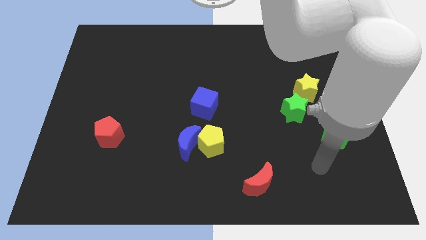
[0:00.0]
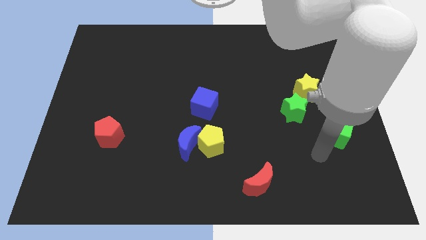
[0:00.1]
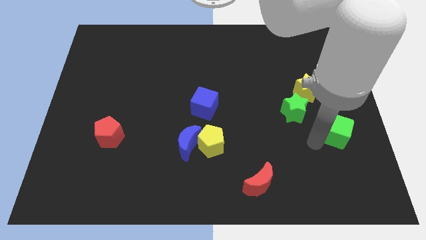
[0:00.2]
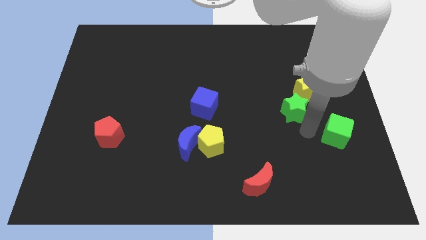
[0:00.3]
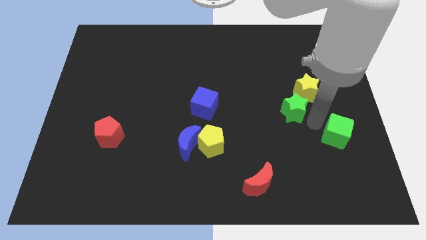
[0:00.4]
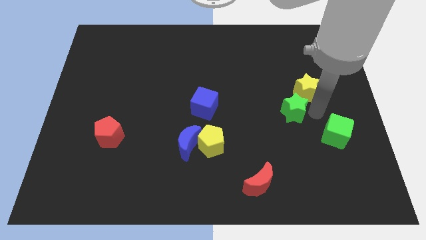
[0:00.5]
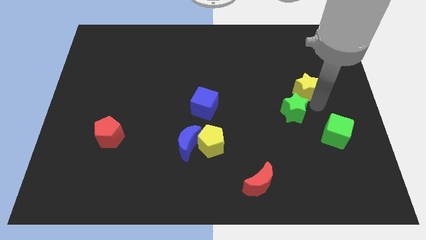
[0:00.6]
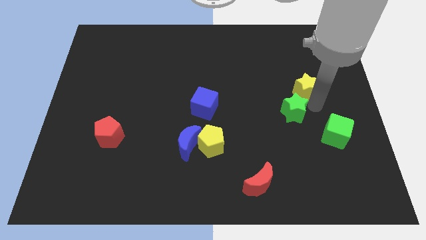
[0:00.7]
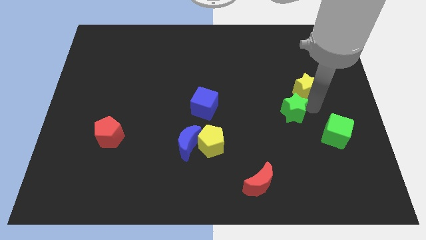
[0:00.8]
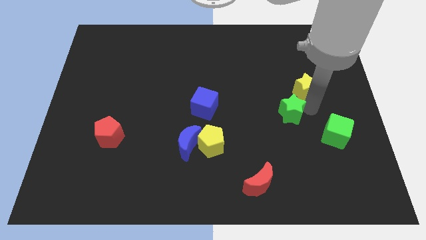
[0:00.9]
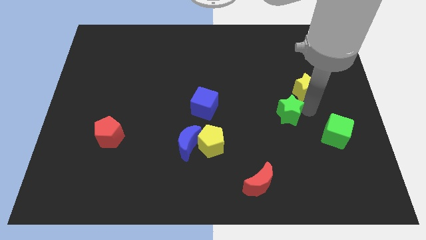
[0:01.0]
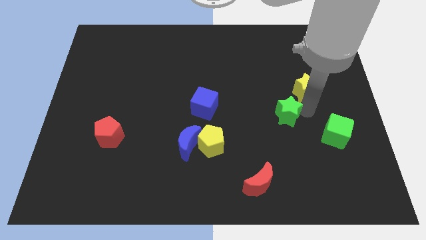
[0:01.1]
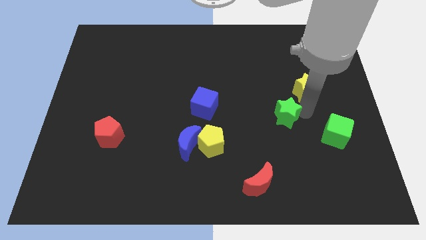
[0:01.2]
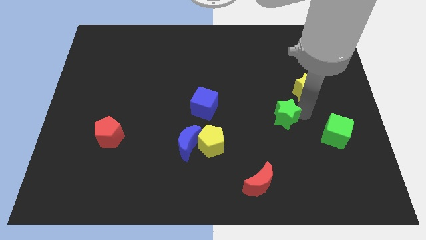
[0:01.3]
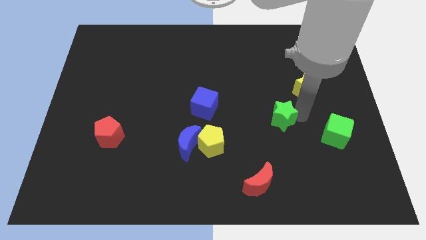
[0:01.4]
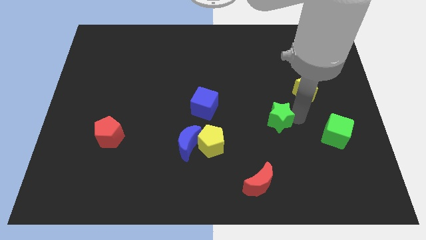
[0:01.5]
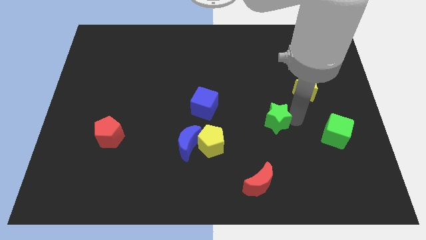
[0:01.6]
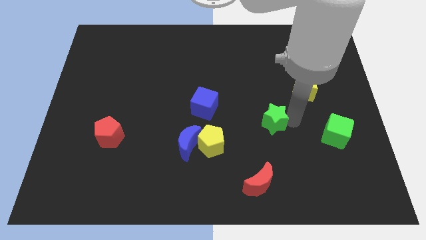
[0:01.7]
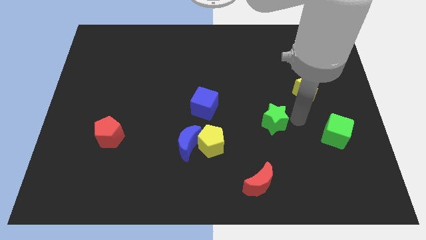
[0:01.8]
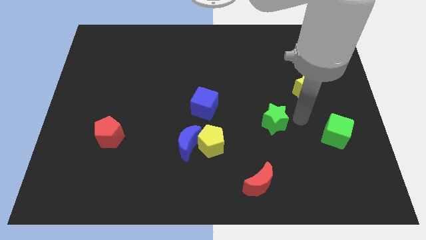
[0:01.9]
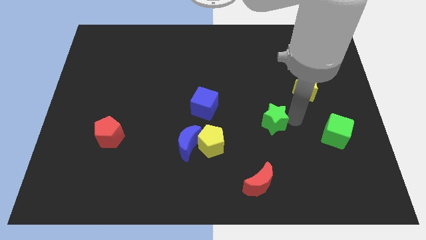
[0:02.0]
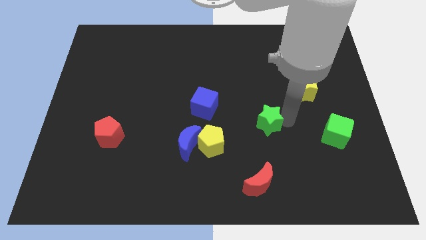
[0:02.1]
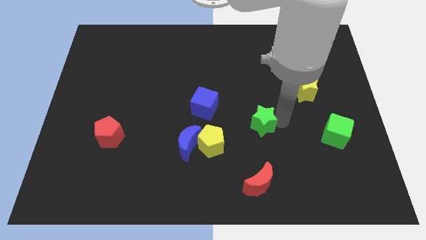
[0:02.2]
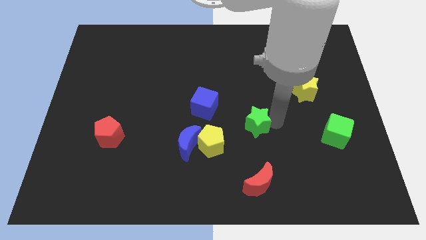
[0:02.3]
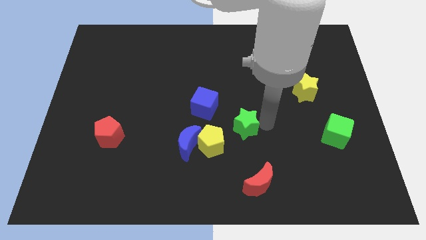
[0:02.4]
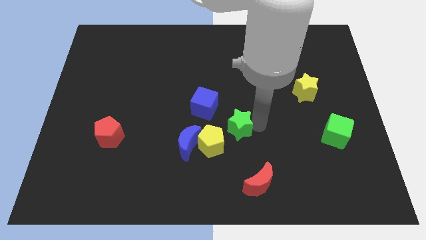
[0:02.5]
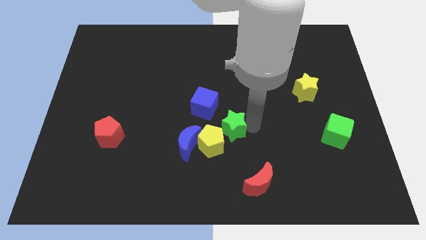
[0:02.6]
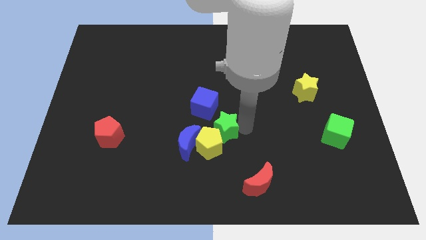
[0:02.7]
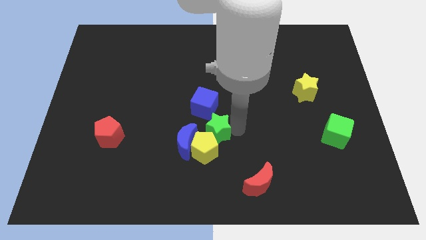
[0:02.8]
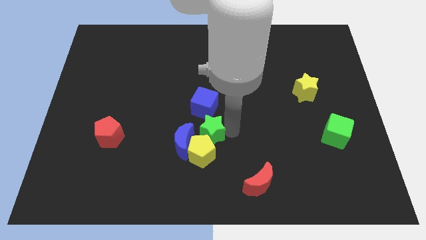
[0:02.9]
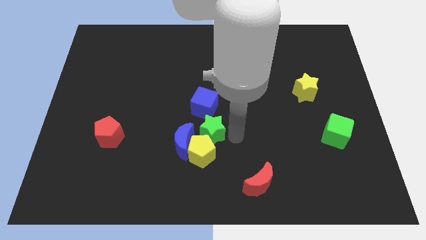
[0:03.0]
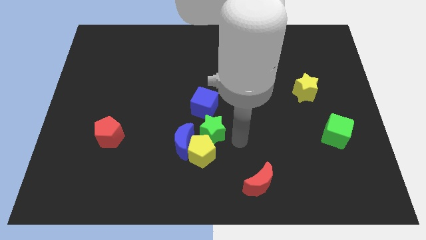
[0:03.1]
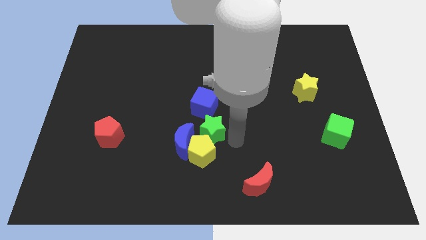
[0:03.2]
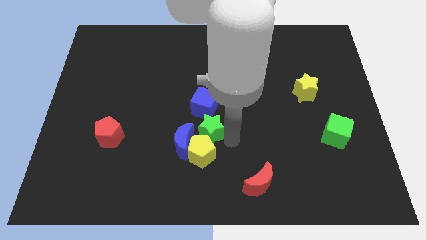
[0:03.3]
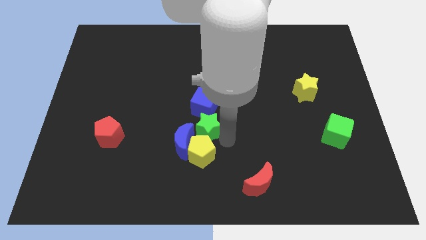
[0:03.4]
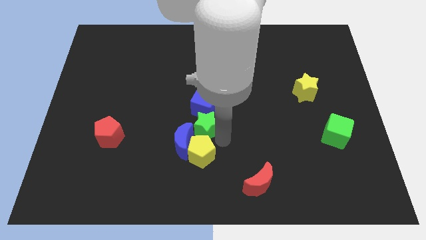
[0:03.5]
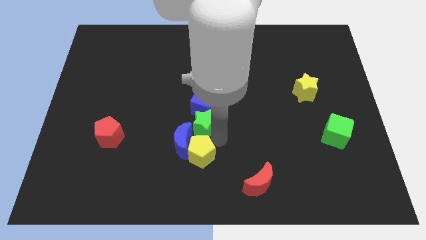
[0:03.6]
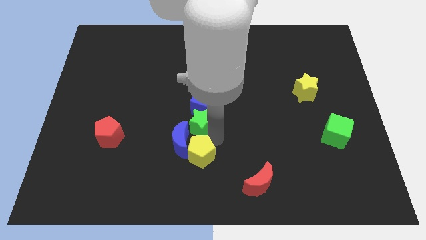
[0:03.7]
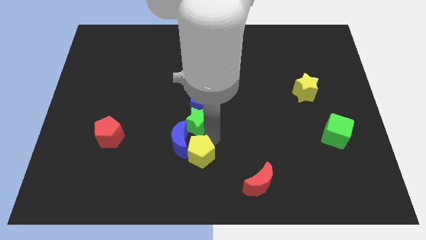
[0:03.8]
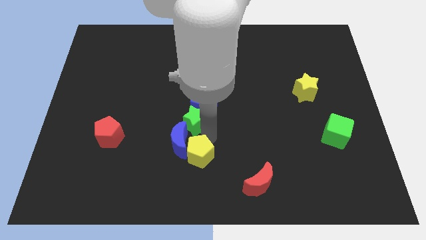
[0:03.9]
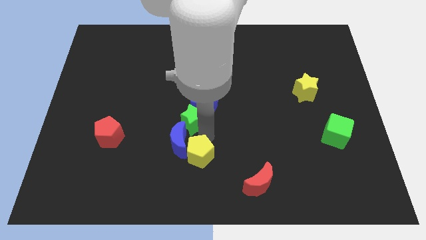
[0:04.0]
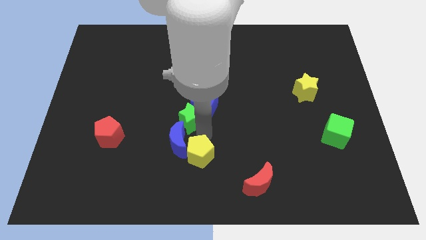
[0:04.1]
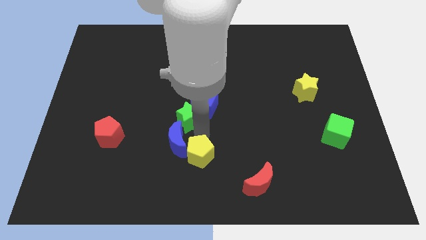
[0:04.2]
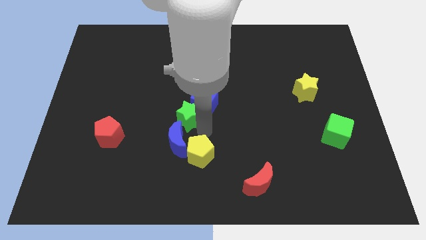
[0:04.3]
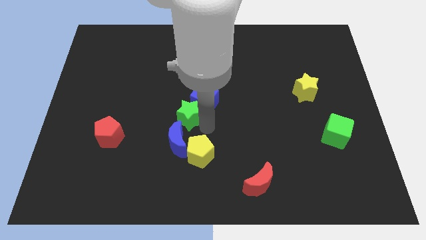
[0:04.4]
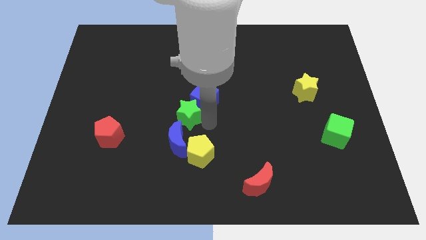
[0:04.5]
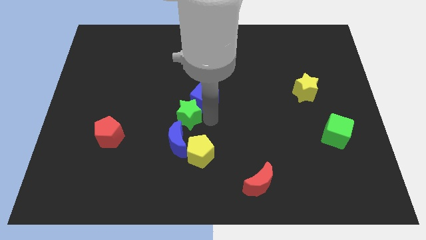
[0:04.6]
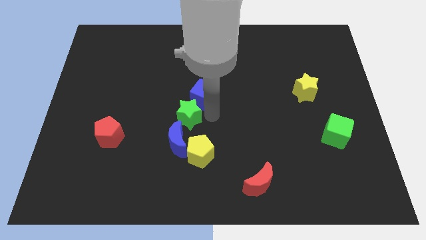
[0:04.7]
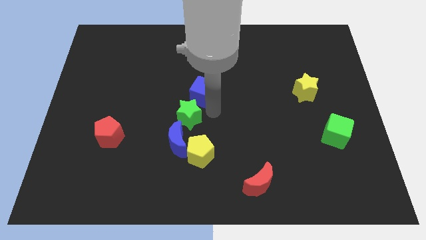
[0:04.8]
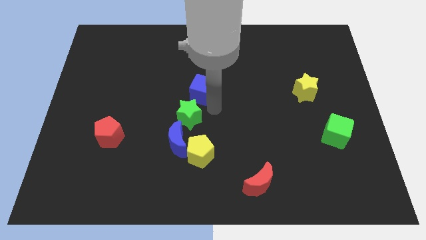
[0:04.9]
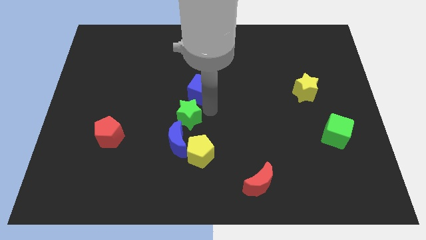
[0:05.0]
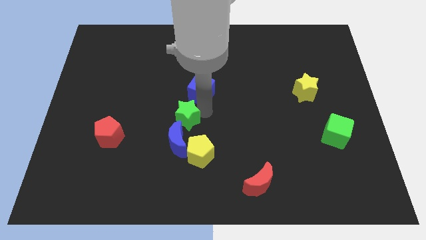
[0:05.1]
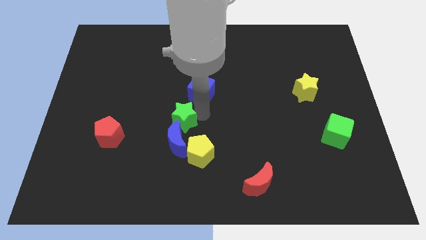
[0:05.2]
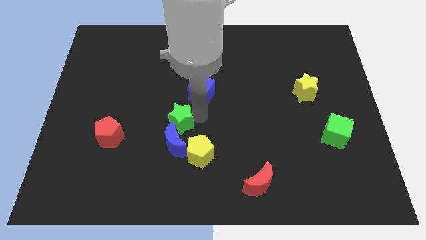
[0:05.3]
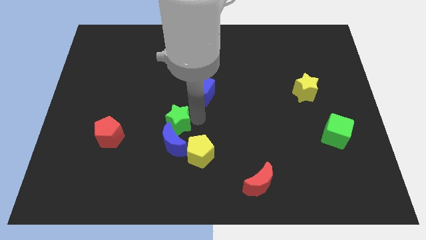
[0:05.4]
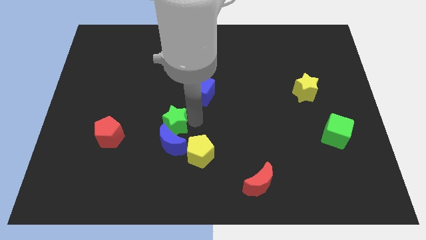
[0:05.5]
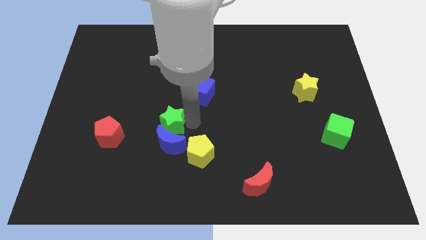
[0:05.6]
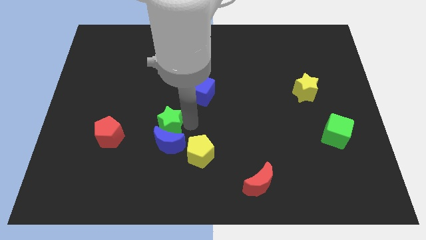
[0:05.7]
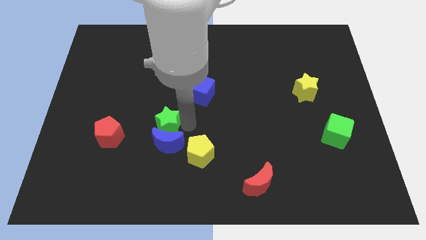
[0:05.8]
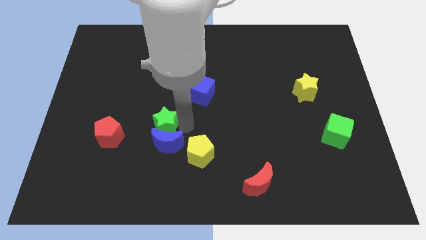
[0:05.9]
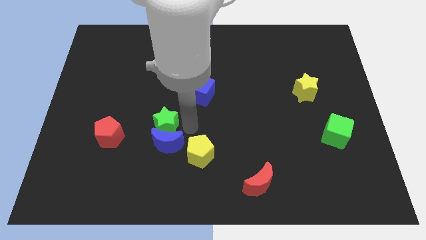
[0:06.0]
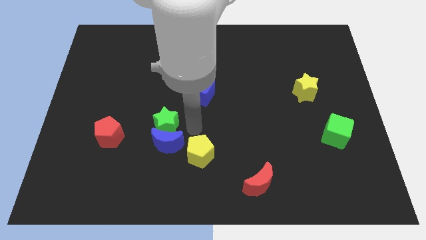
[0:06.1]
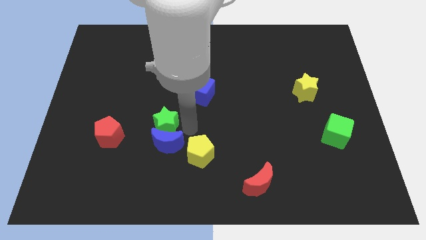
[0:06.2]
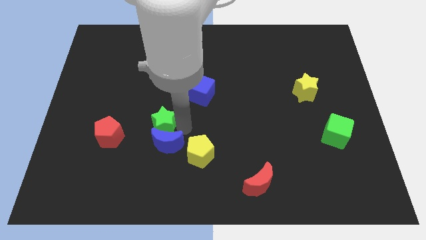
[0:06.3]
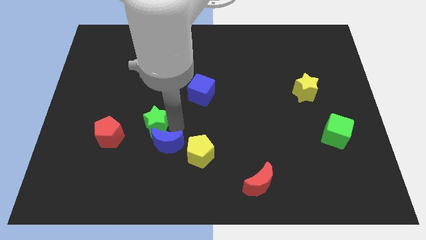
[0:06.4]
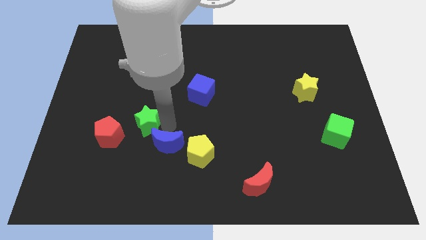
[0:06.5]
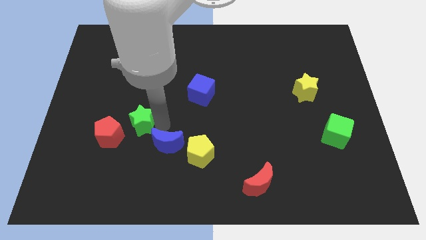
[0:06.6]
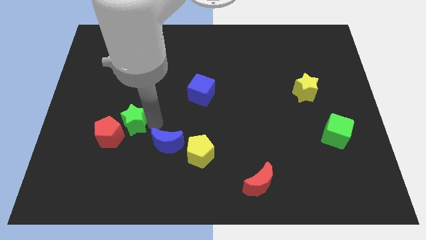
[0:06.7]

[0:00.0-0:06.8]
move the green star next to the red pentagon
